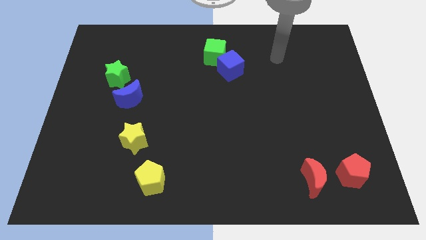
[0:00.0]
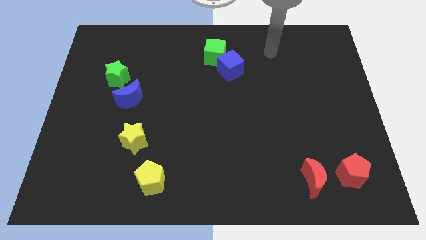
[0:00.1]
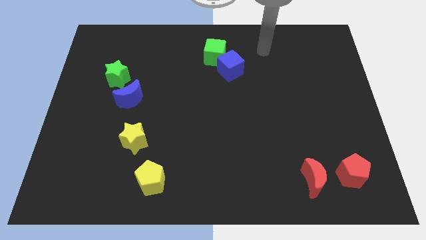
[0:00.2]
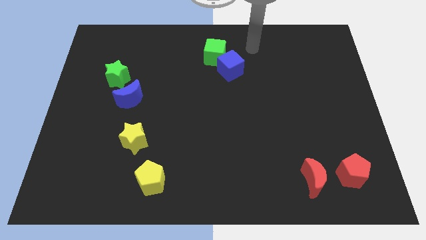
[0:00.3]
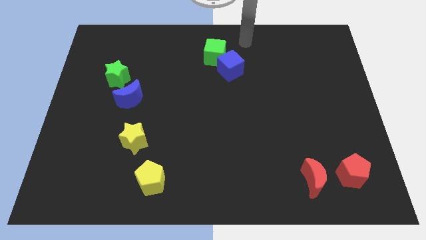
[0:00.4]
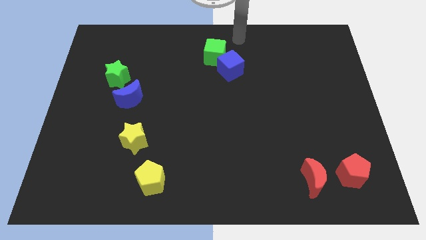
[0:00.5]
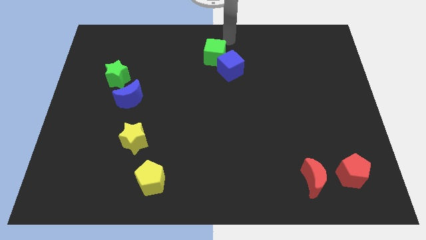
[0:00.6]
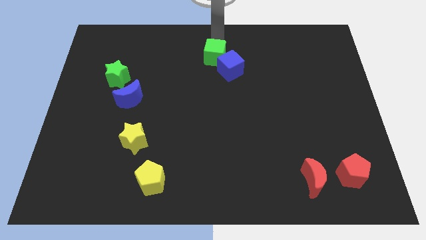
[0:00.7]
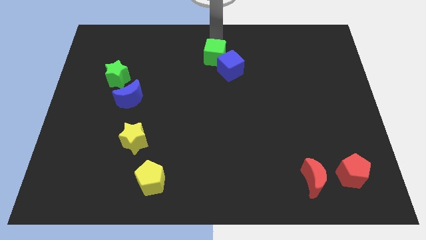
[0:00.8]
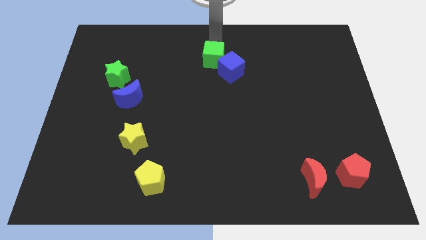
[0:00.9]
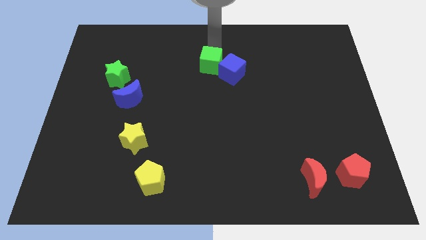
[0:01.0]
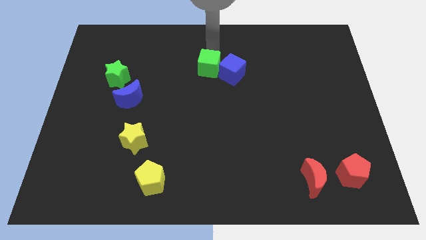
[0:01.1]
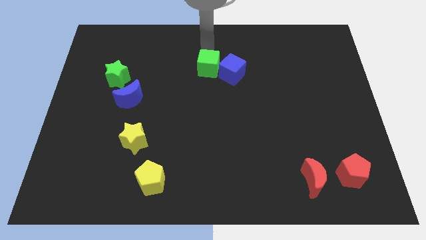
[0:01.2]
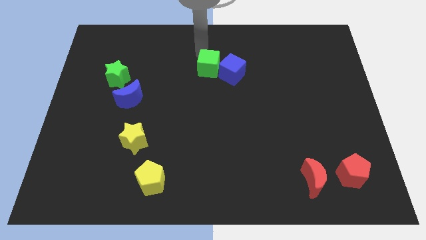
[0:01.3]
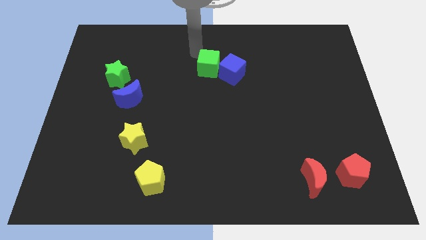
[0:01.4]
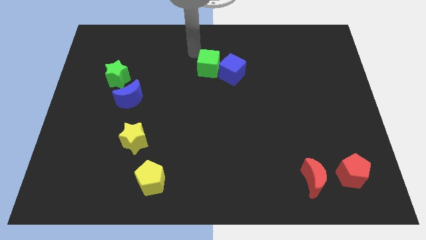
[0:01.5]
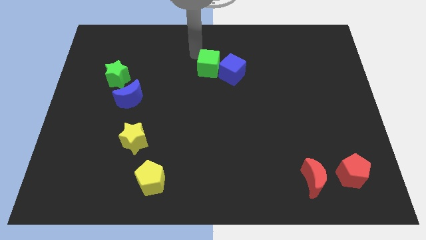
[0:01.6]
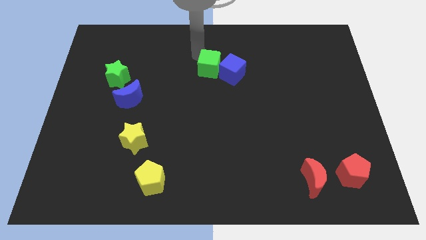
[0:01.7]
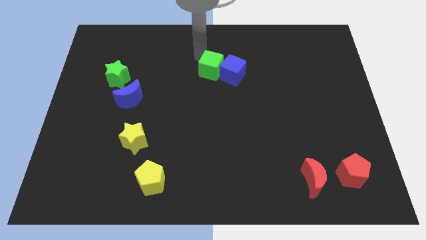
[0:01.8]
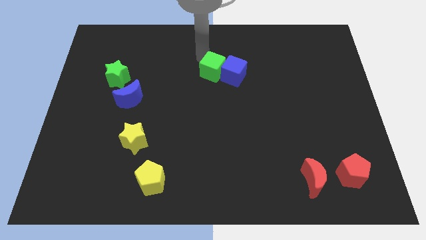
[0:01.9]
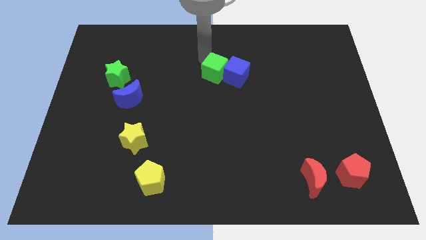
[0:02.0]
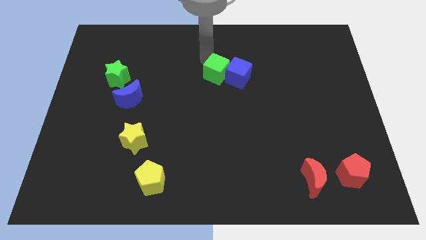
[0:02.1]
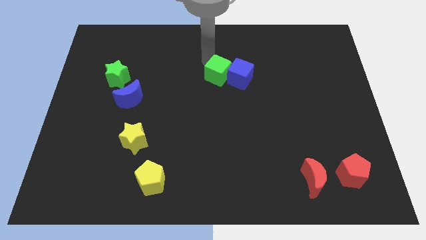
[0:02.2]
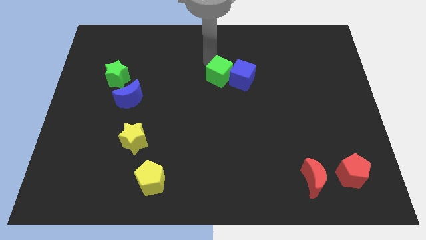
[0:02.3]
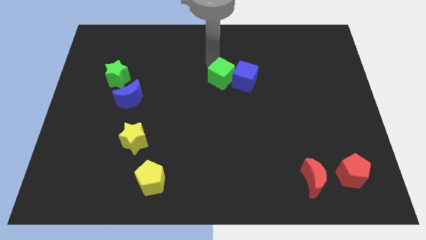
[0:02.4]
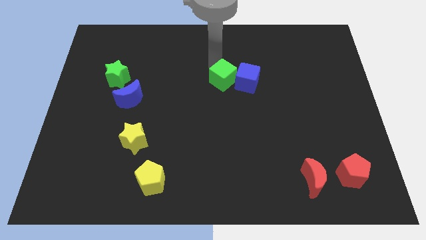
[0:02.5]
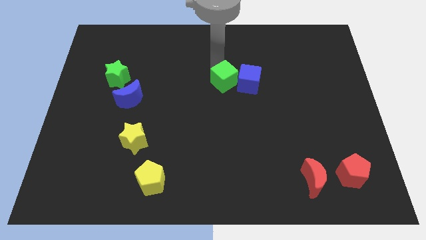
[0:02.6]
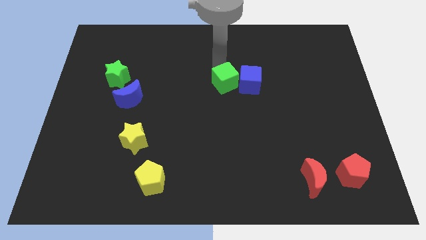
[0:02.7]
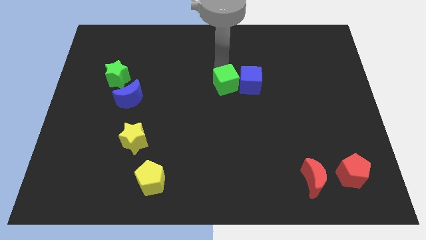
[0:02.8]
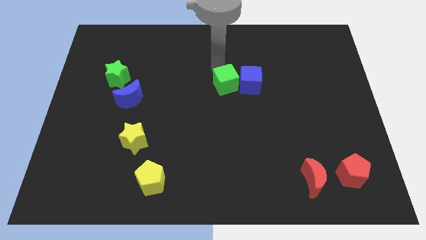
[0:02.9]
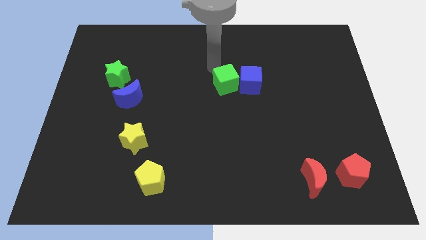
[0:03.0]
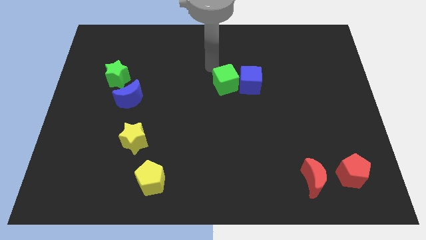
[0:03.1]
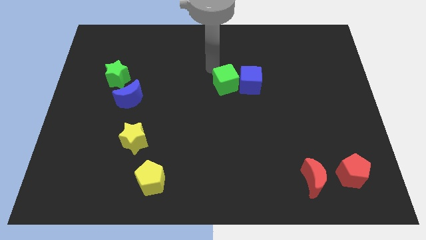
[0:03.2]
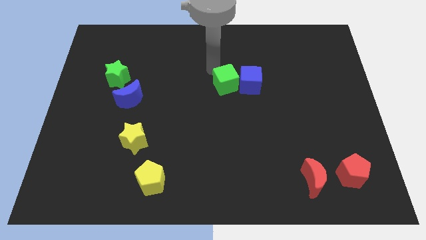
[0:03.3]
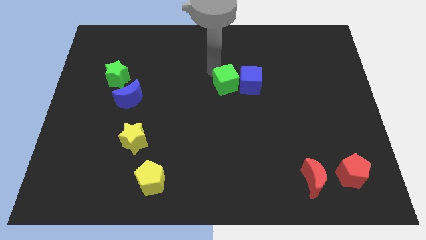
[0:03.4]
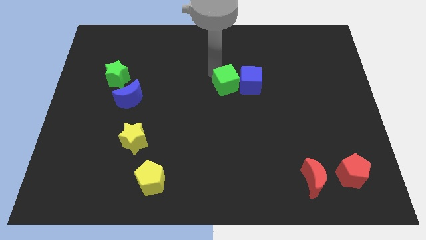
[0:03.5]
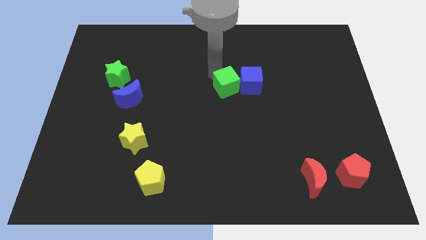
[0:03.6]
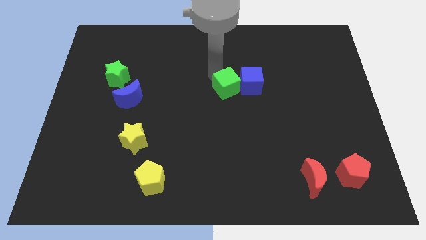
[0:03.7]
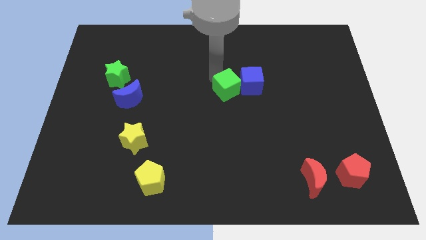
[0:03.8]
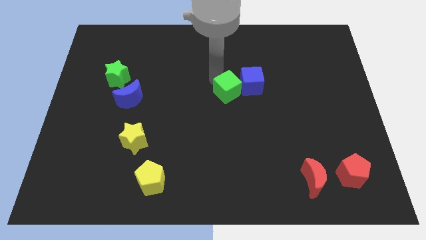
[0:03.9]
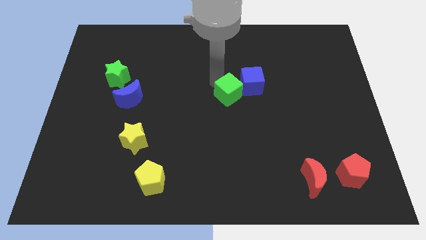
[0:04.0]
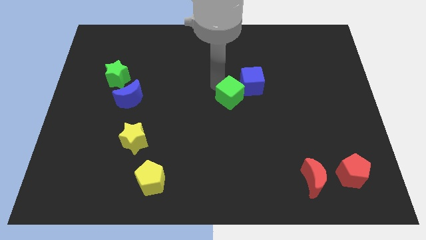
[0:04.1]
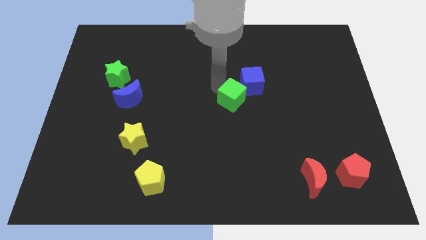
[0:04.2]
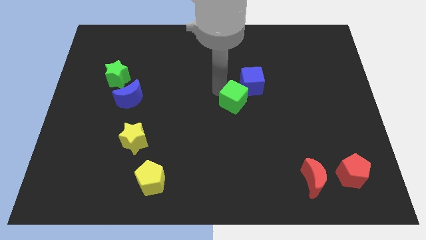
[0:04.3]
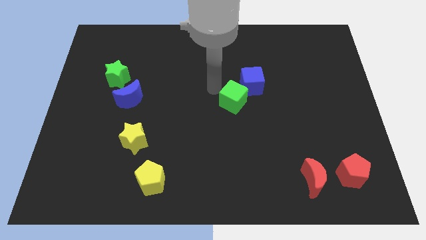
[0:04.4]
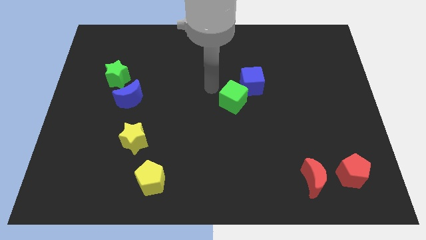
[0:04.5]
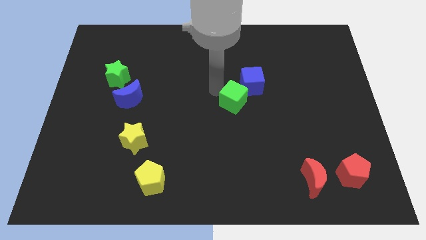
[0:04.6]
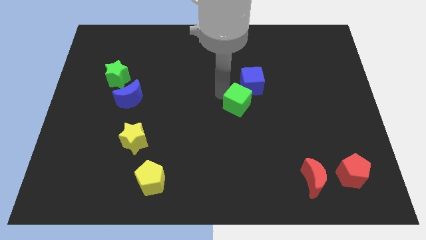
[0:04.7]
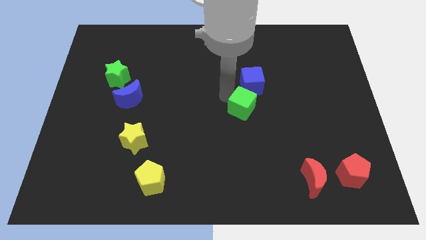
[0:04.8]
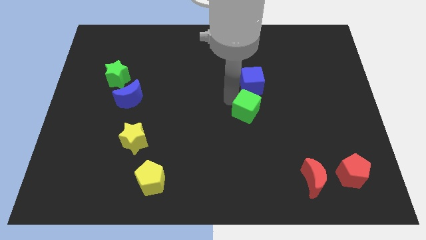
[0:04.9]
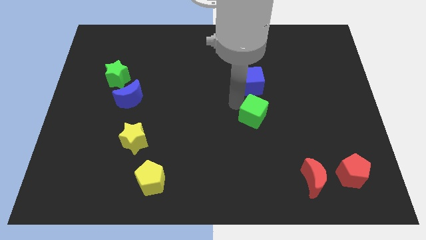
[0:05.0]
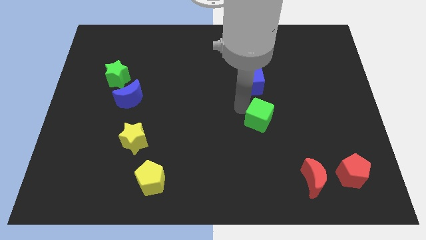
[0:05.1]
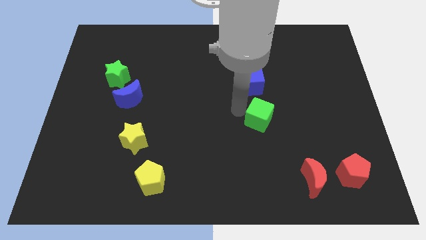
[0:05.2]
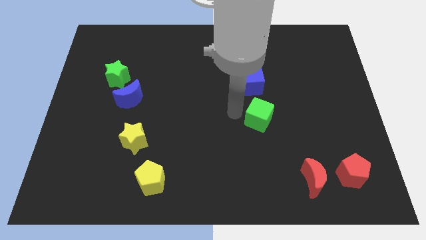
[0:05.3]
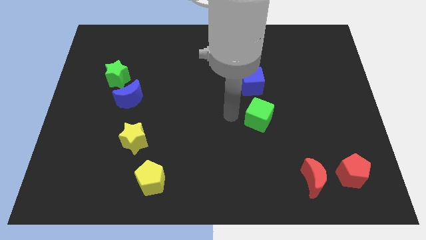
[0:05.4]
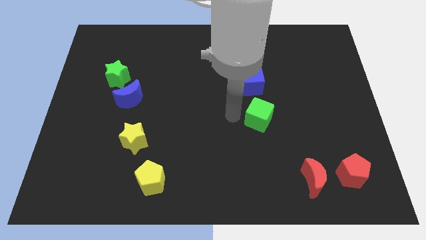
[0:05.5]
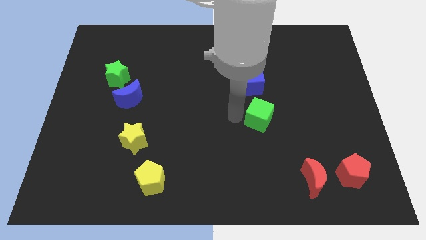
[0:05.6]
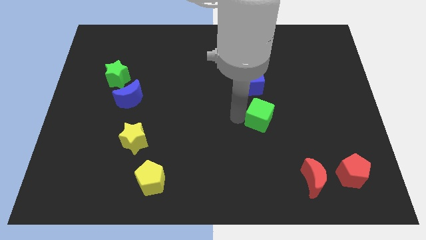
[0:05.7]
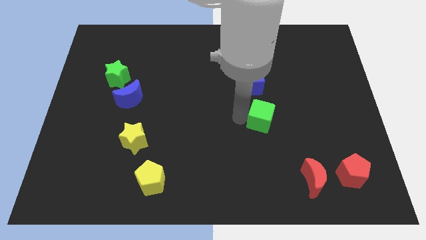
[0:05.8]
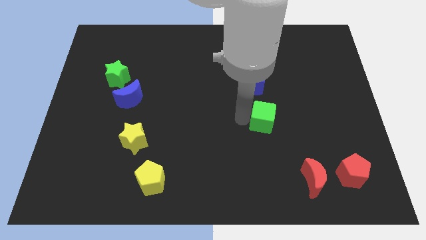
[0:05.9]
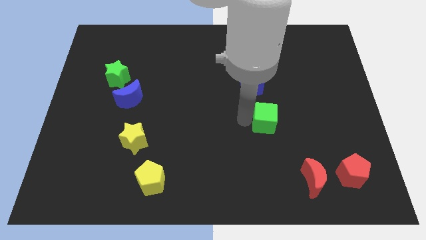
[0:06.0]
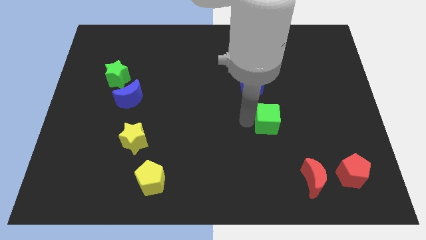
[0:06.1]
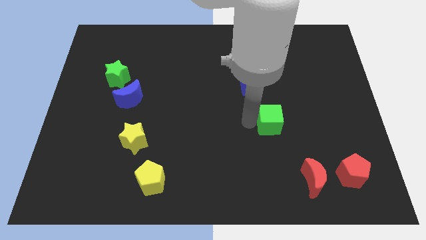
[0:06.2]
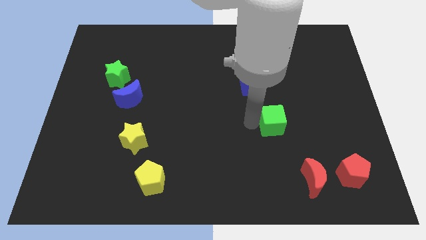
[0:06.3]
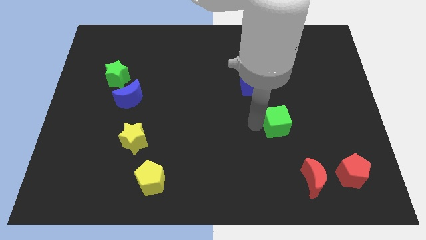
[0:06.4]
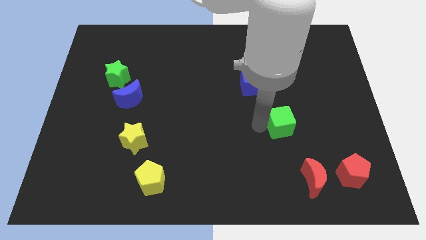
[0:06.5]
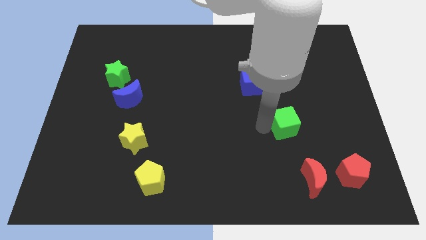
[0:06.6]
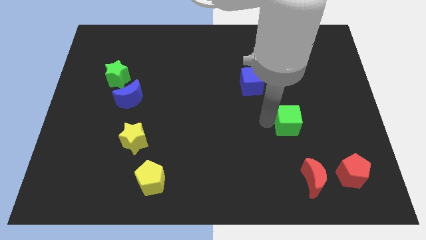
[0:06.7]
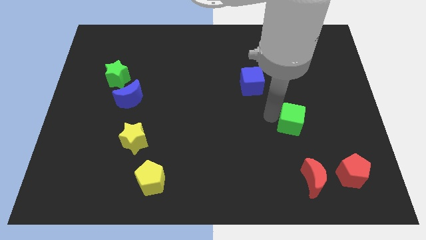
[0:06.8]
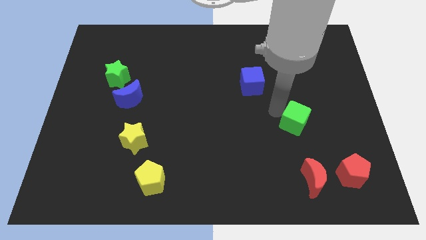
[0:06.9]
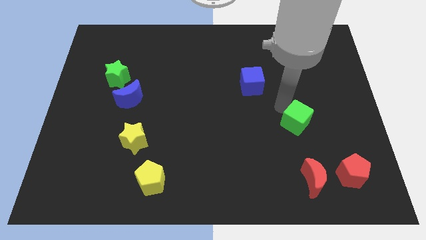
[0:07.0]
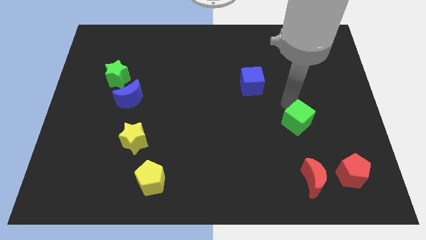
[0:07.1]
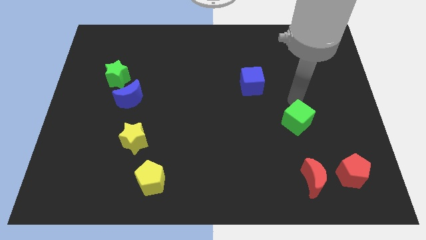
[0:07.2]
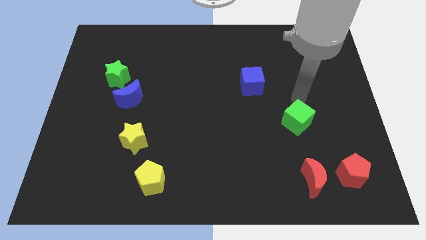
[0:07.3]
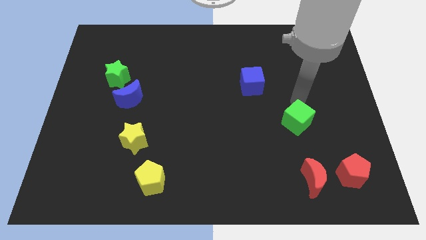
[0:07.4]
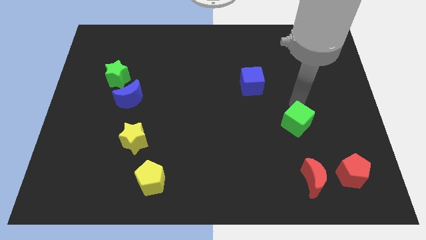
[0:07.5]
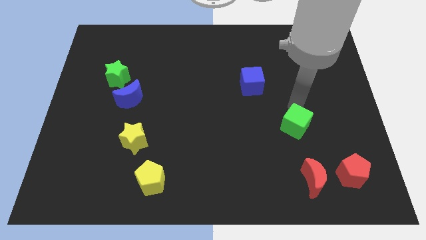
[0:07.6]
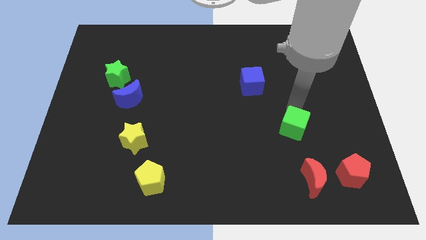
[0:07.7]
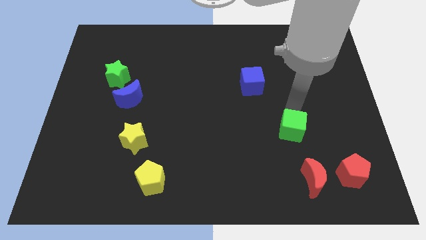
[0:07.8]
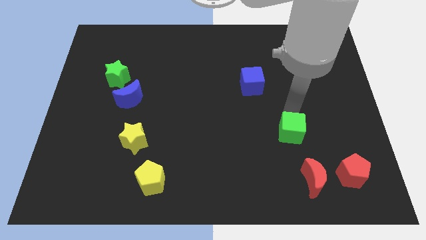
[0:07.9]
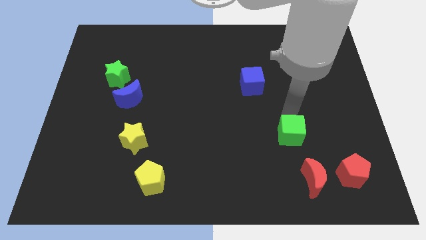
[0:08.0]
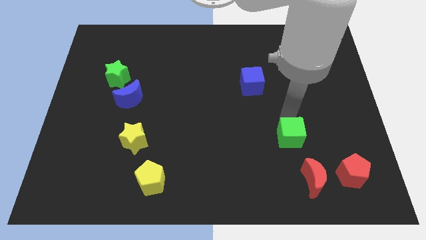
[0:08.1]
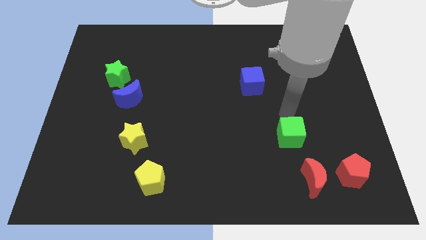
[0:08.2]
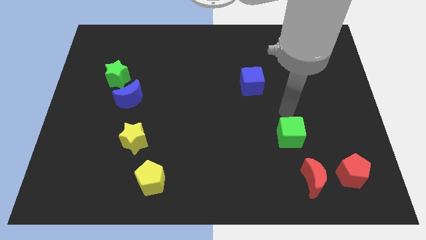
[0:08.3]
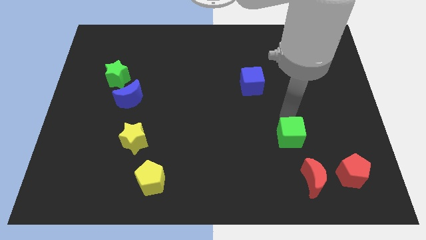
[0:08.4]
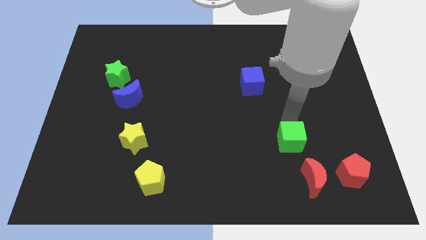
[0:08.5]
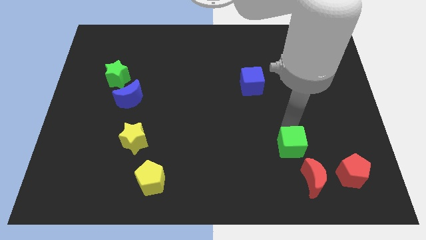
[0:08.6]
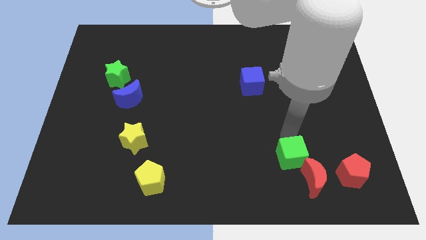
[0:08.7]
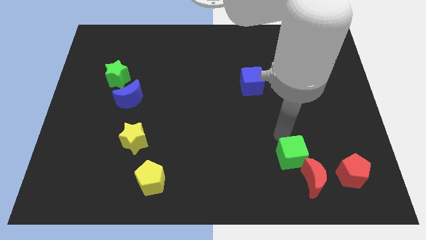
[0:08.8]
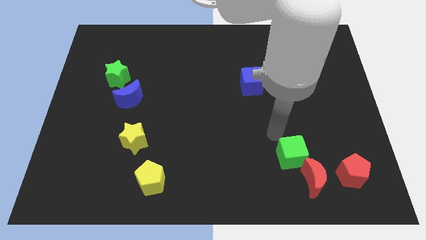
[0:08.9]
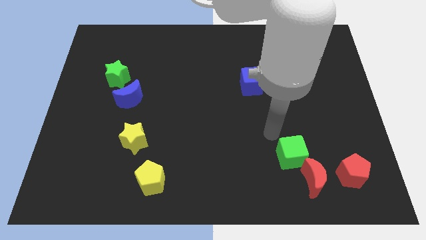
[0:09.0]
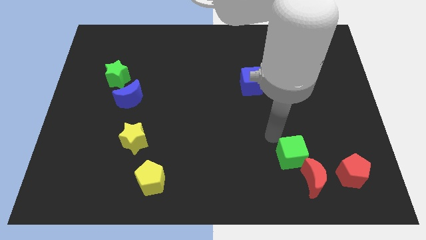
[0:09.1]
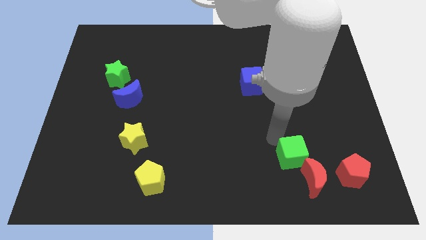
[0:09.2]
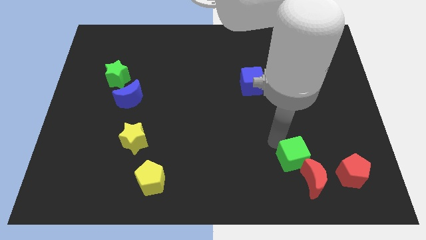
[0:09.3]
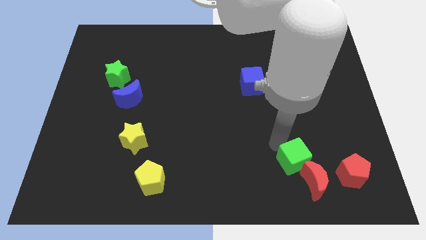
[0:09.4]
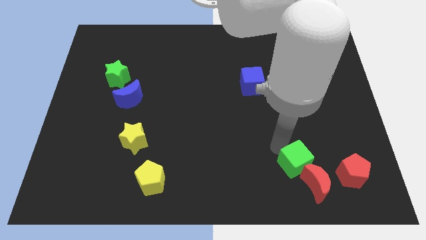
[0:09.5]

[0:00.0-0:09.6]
put the green cube towards the red moon
